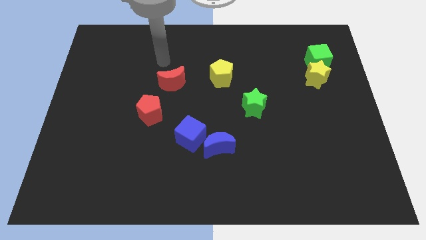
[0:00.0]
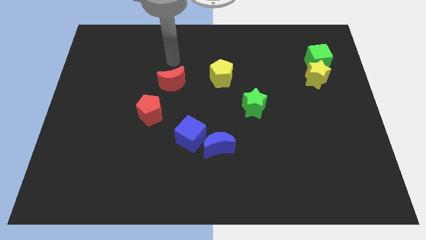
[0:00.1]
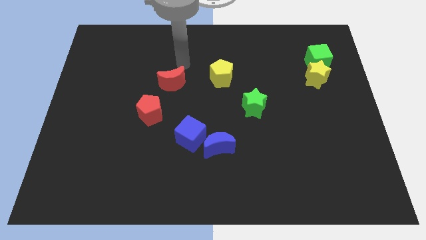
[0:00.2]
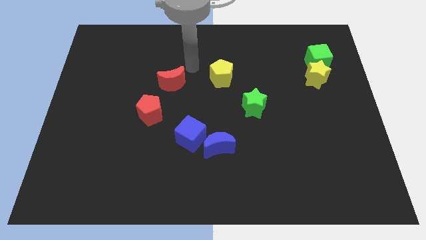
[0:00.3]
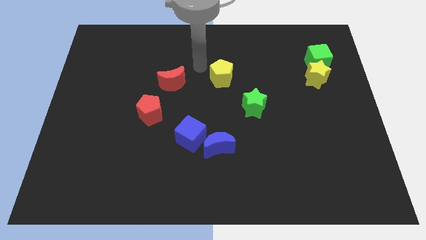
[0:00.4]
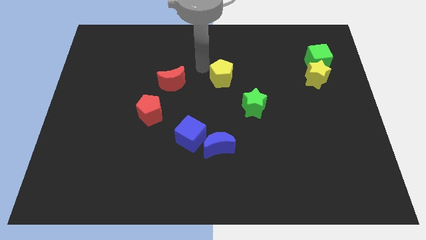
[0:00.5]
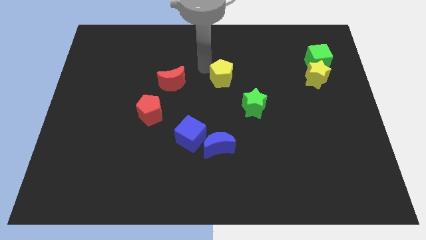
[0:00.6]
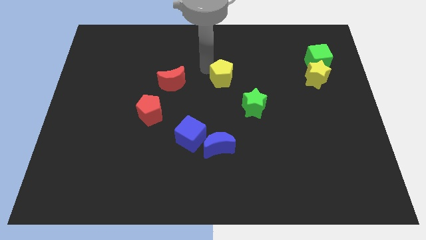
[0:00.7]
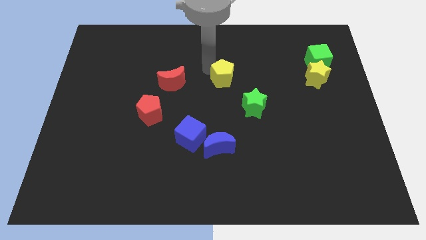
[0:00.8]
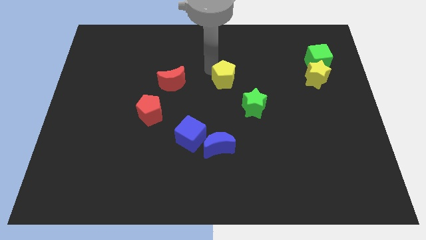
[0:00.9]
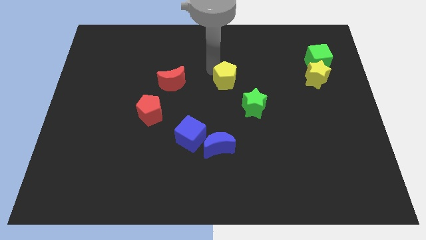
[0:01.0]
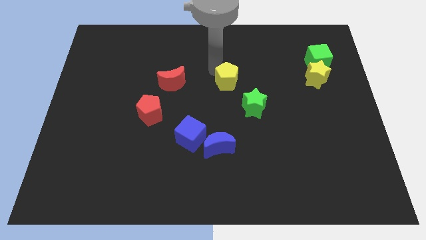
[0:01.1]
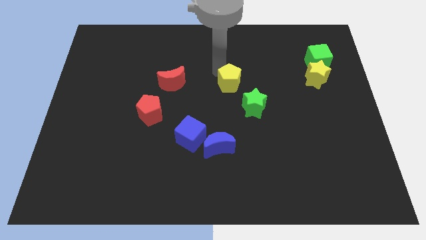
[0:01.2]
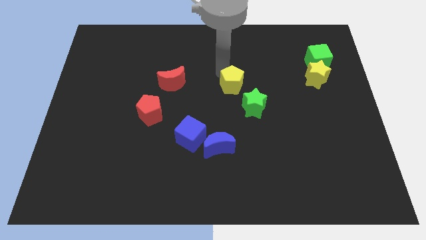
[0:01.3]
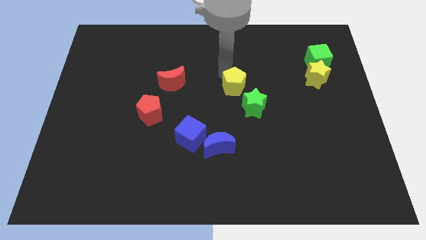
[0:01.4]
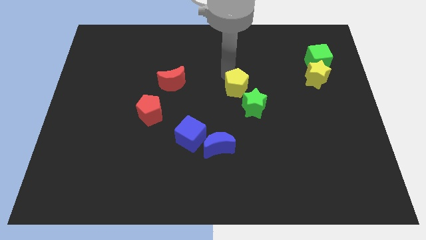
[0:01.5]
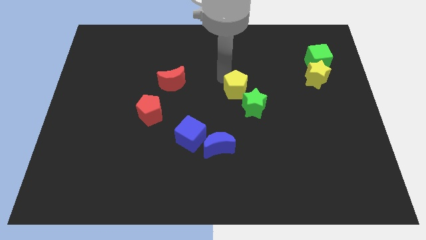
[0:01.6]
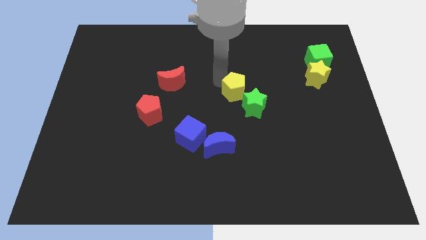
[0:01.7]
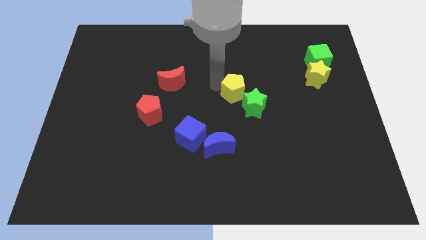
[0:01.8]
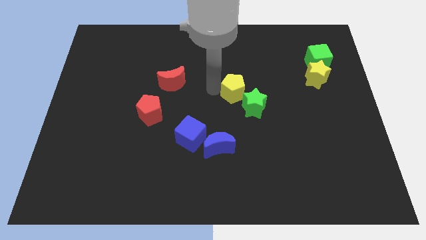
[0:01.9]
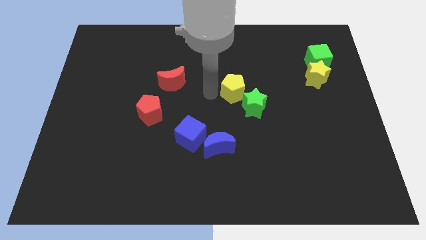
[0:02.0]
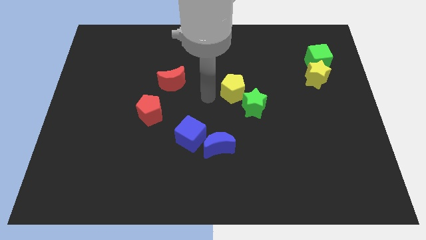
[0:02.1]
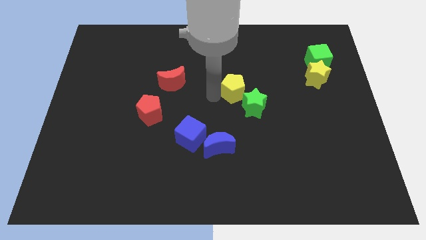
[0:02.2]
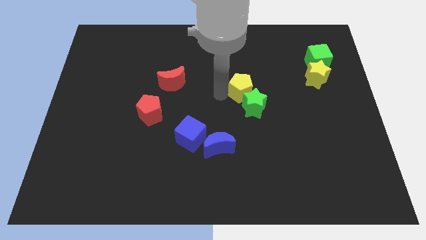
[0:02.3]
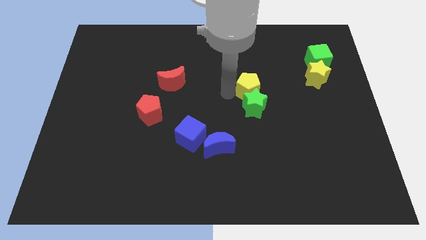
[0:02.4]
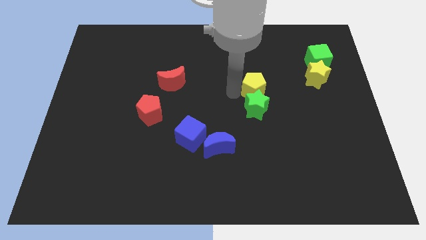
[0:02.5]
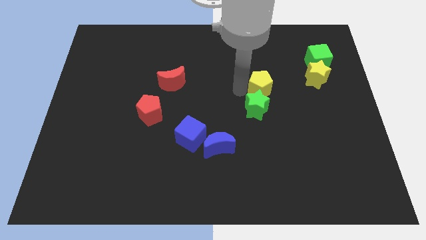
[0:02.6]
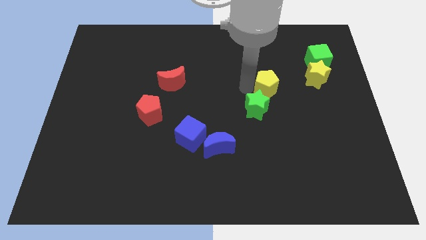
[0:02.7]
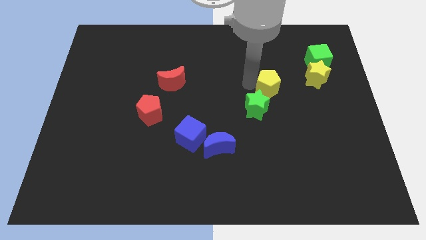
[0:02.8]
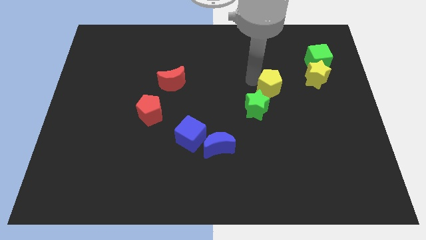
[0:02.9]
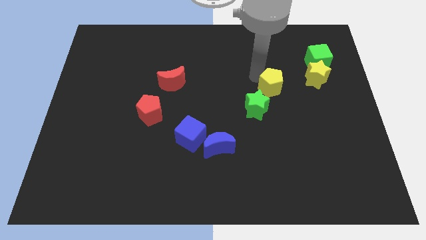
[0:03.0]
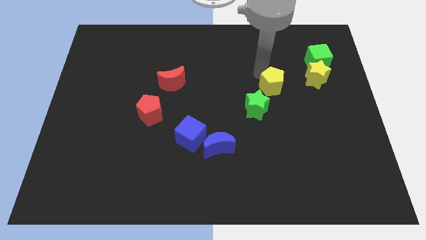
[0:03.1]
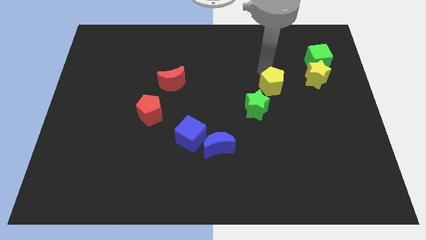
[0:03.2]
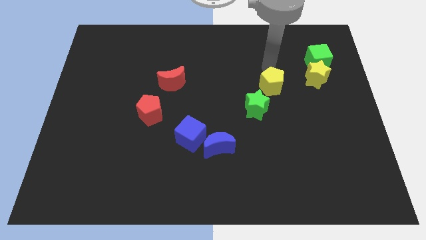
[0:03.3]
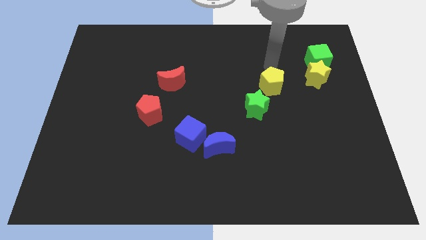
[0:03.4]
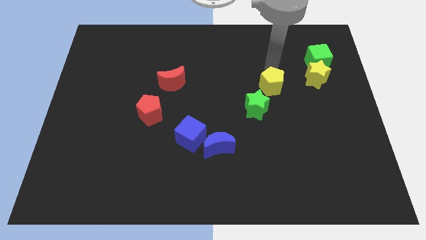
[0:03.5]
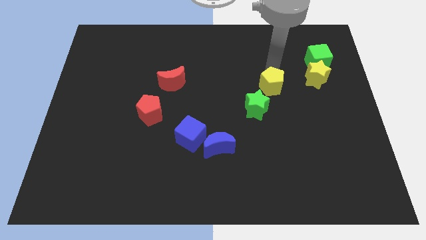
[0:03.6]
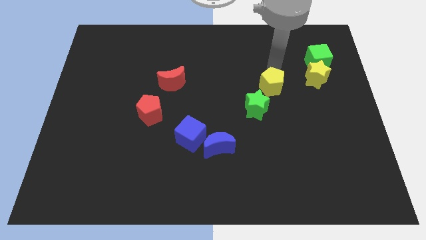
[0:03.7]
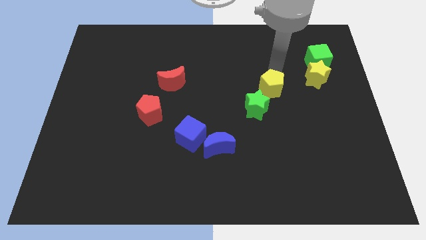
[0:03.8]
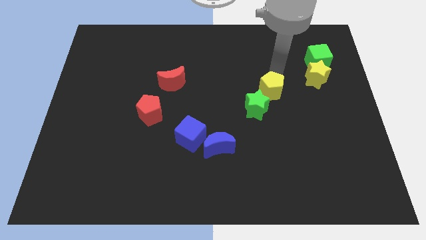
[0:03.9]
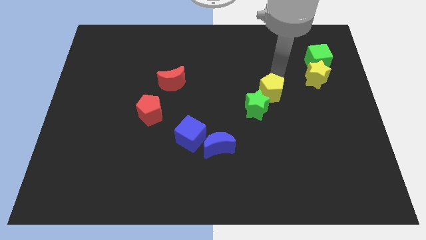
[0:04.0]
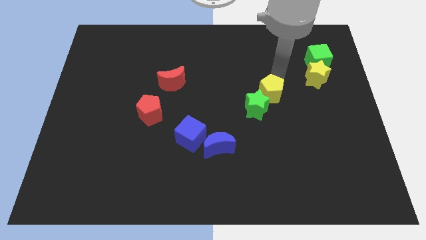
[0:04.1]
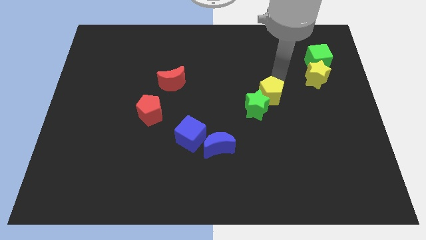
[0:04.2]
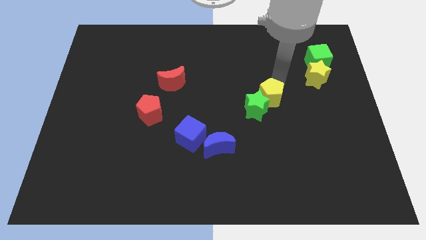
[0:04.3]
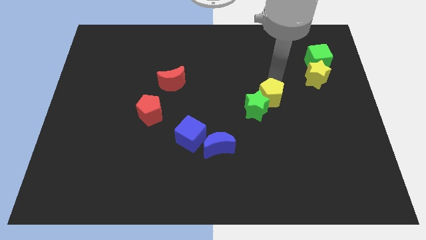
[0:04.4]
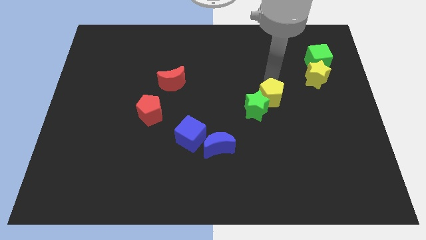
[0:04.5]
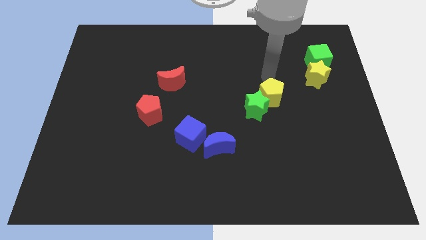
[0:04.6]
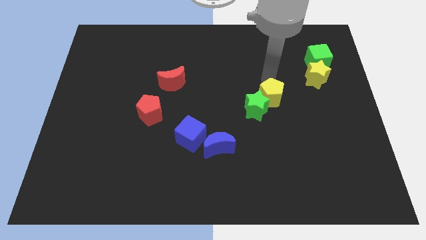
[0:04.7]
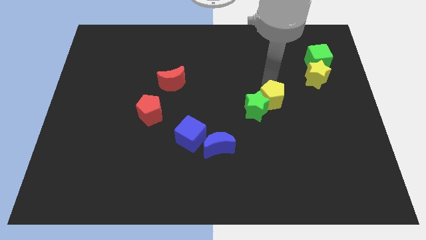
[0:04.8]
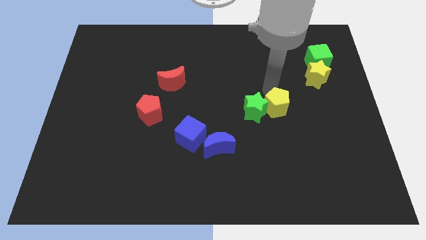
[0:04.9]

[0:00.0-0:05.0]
put the yellow pentagon diagonally down and to the right of the green star

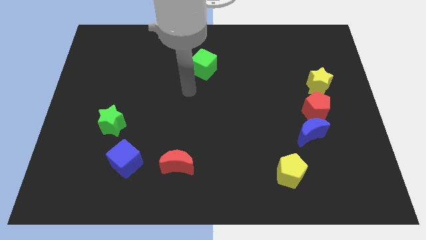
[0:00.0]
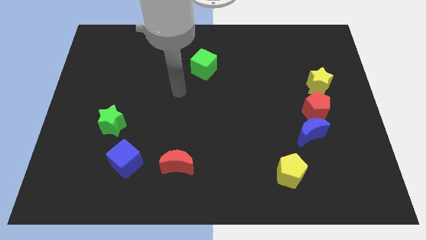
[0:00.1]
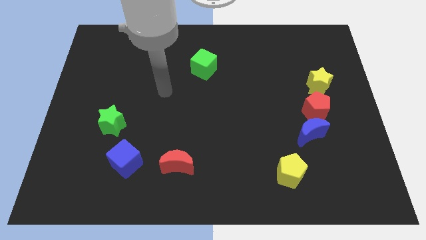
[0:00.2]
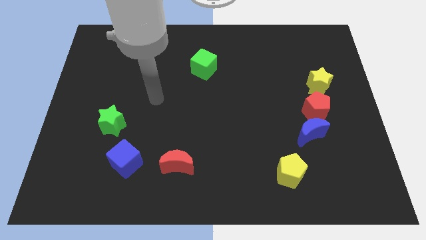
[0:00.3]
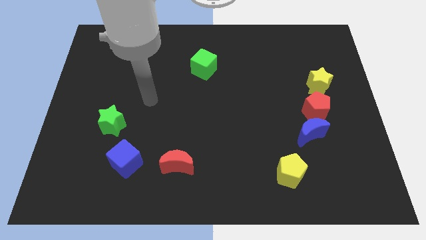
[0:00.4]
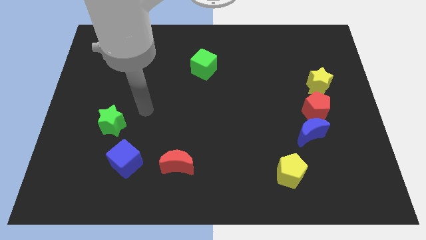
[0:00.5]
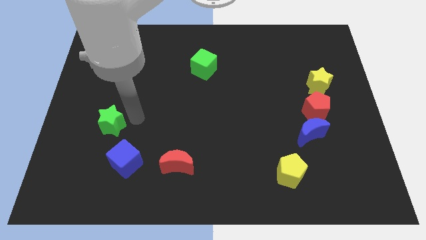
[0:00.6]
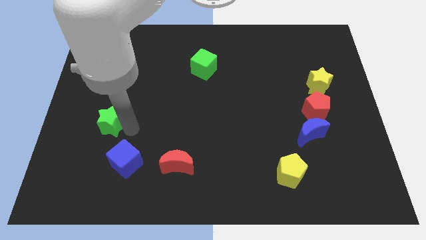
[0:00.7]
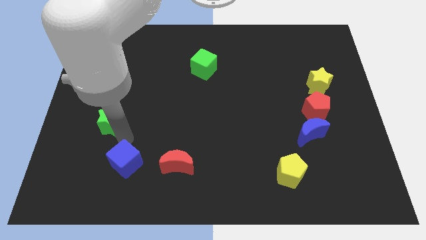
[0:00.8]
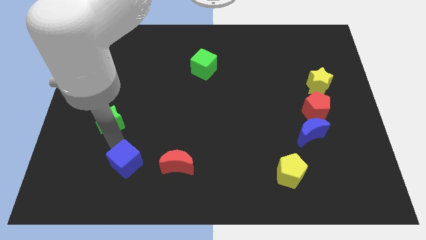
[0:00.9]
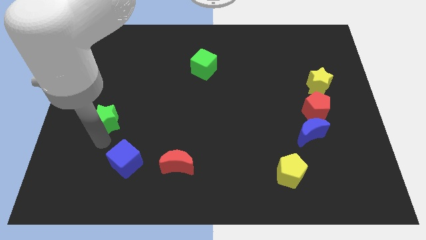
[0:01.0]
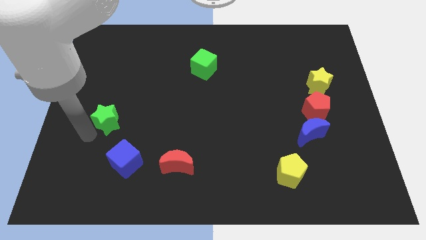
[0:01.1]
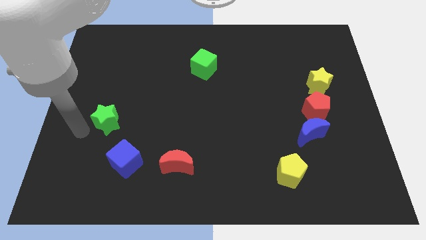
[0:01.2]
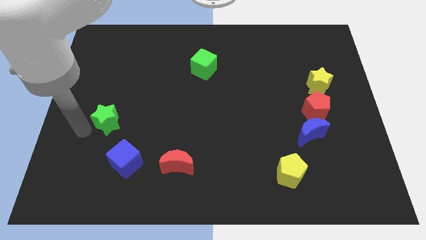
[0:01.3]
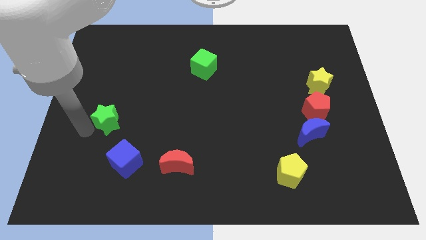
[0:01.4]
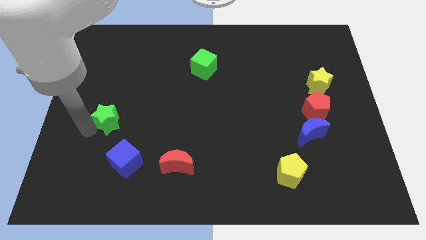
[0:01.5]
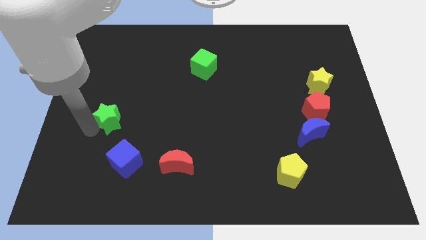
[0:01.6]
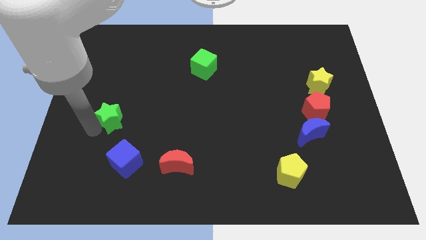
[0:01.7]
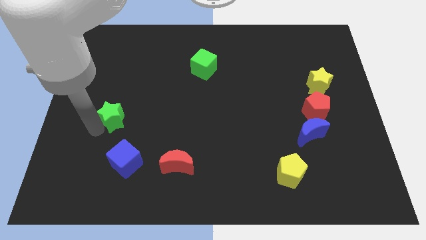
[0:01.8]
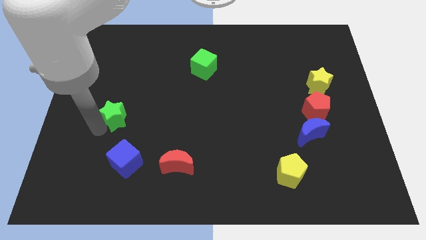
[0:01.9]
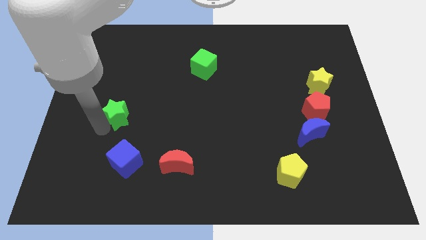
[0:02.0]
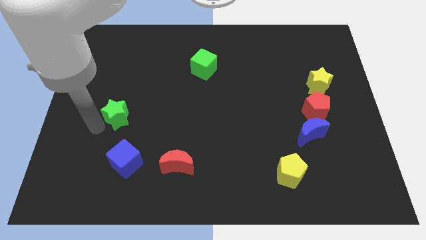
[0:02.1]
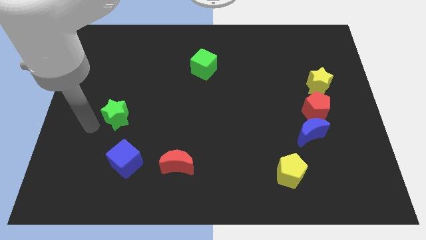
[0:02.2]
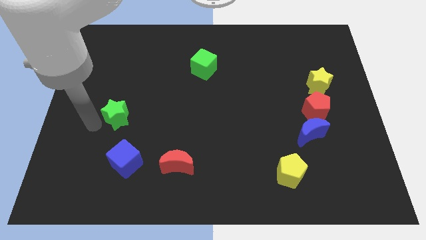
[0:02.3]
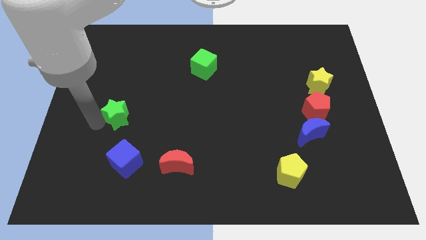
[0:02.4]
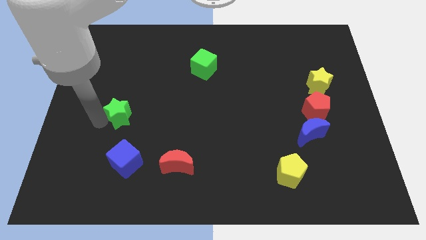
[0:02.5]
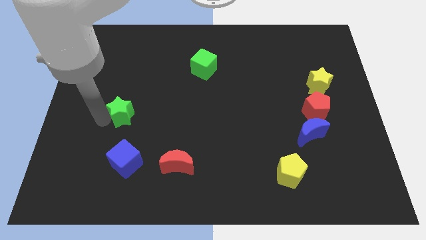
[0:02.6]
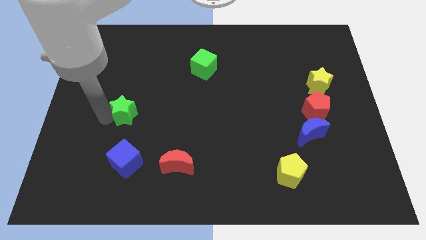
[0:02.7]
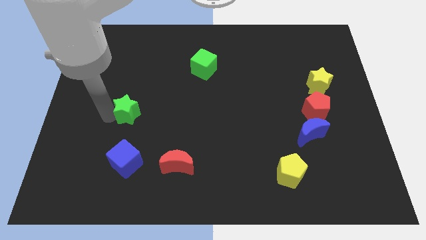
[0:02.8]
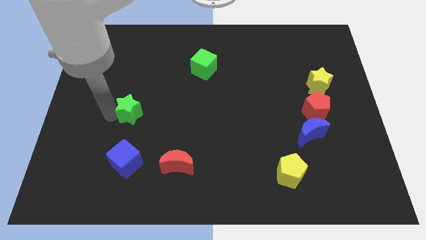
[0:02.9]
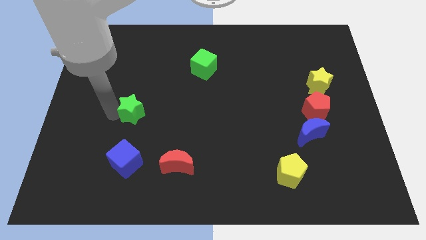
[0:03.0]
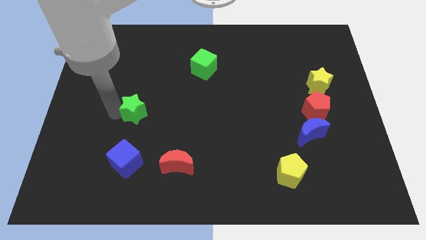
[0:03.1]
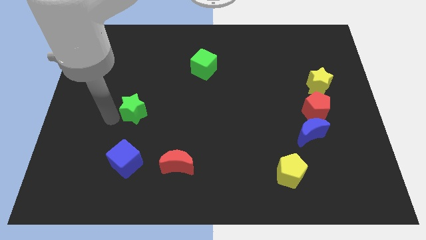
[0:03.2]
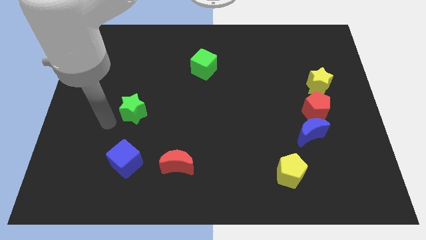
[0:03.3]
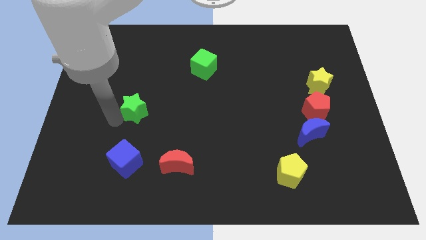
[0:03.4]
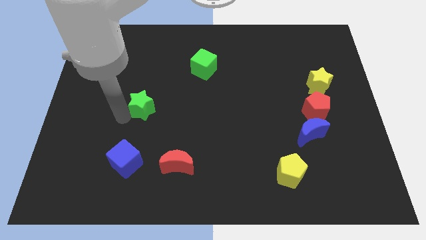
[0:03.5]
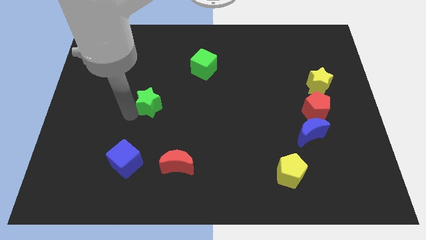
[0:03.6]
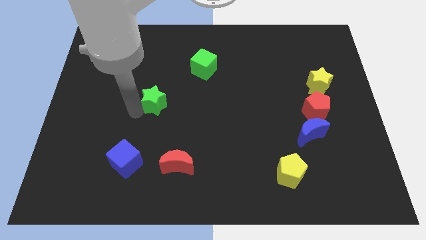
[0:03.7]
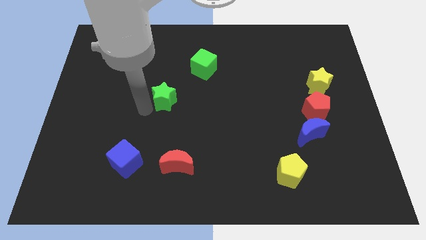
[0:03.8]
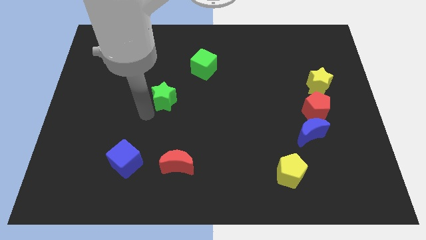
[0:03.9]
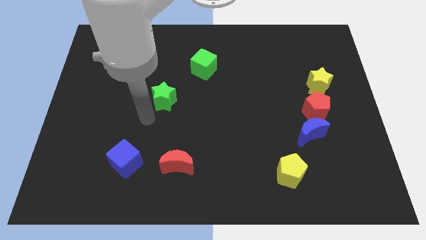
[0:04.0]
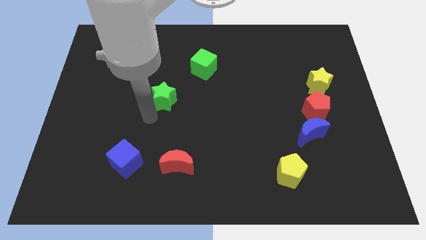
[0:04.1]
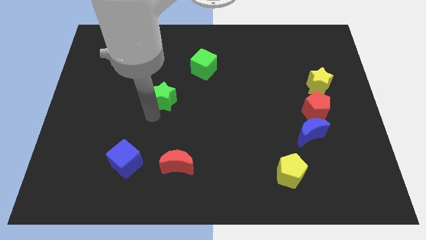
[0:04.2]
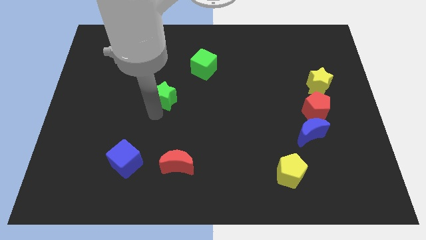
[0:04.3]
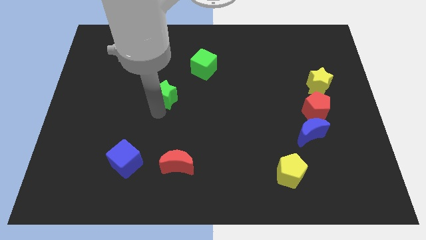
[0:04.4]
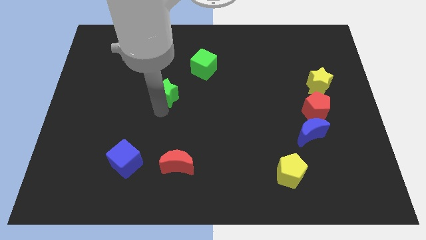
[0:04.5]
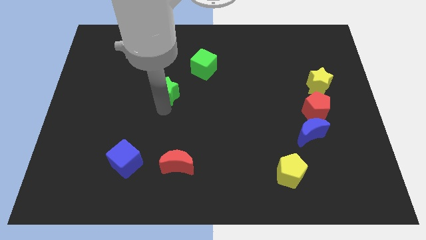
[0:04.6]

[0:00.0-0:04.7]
slide the green star to the bottom left of the green cube
